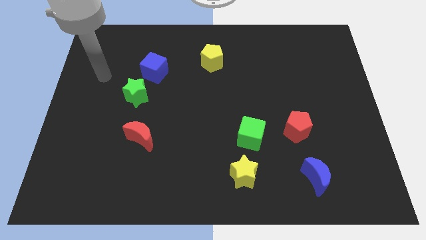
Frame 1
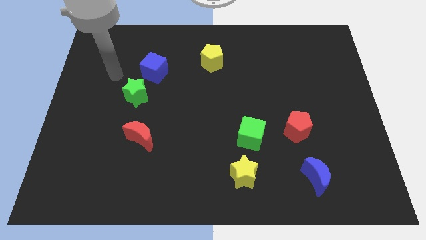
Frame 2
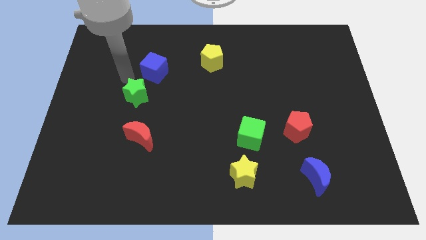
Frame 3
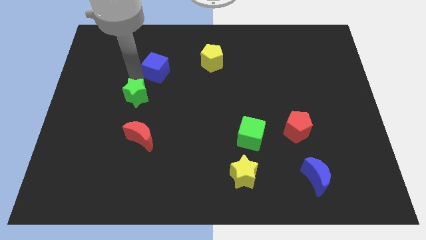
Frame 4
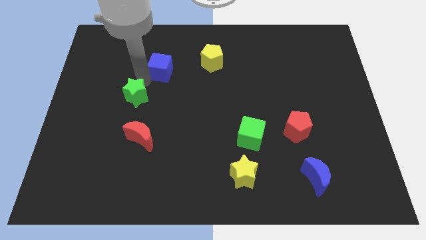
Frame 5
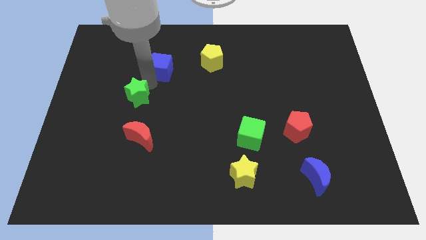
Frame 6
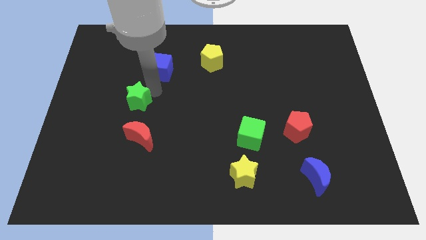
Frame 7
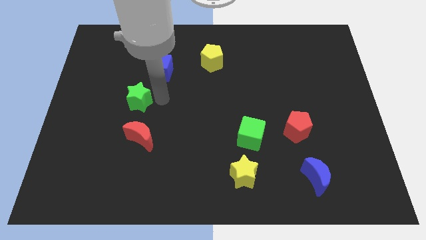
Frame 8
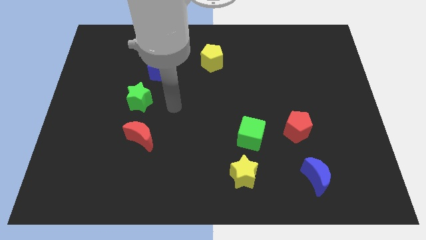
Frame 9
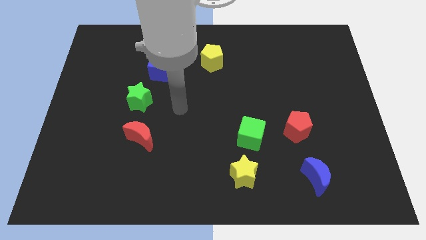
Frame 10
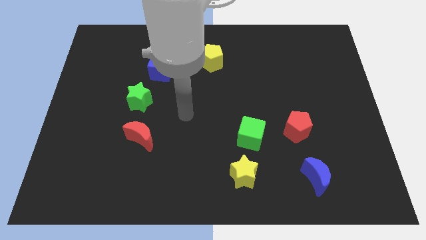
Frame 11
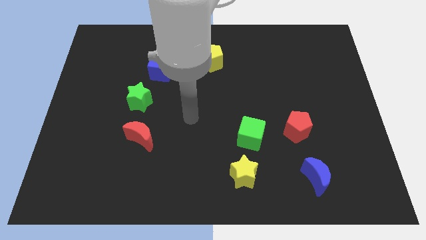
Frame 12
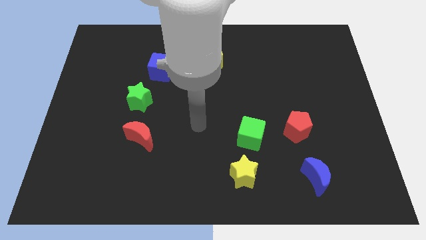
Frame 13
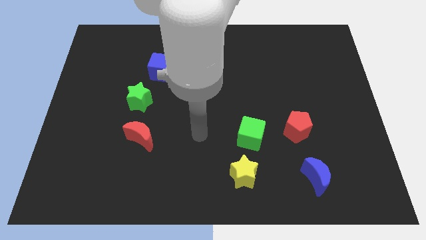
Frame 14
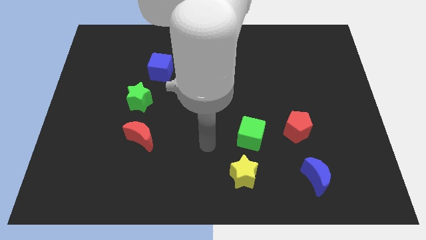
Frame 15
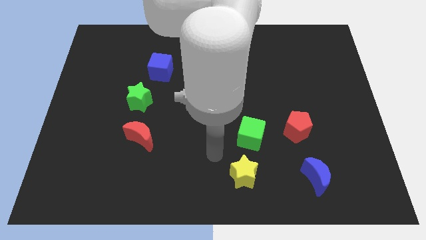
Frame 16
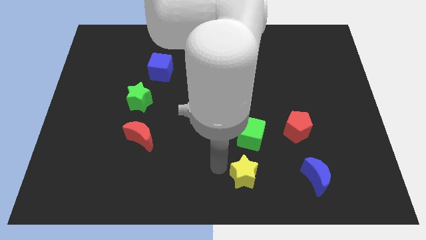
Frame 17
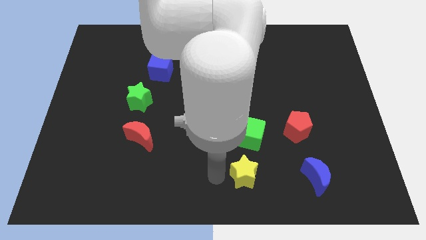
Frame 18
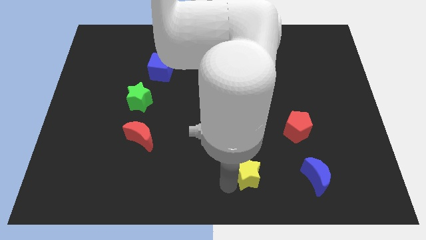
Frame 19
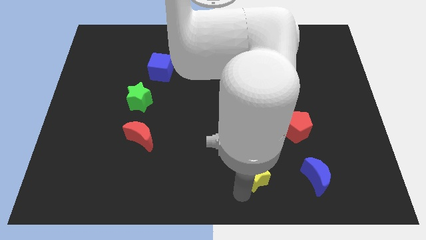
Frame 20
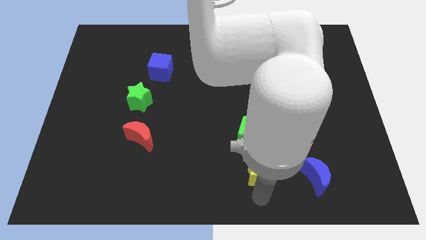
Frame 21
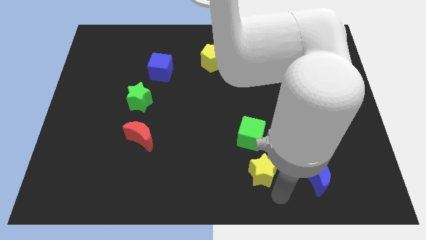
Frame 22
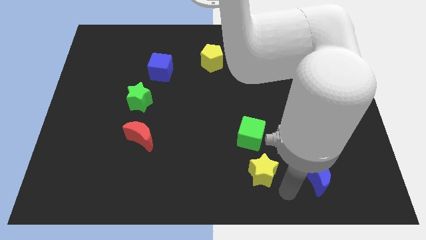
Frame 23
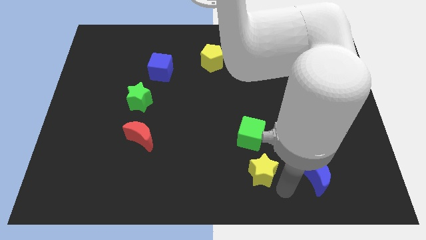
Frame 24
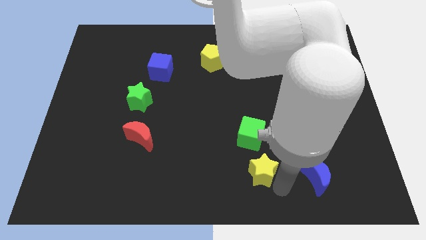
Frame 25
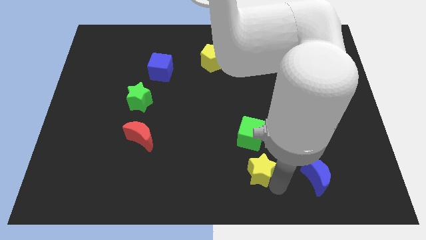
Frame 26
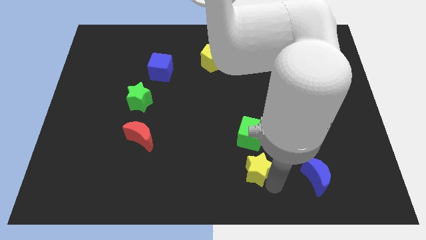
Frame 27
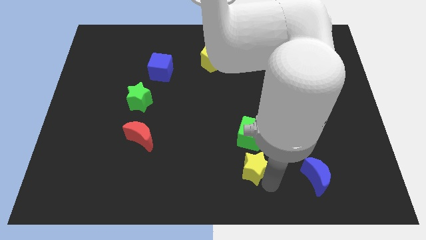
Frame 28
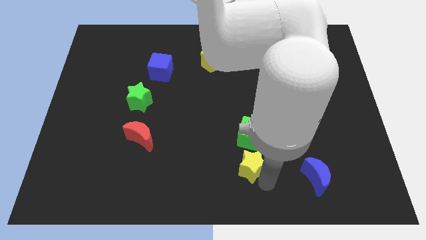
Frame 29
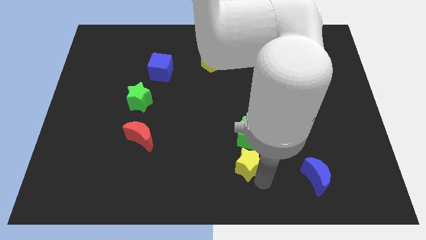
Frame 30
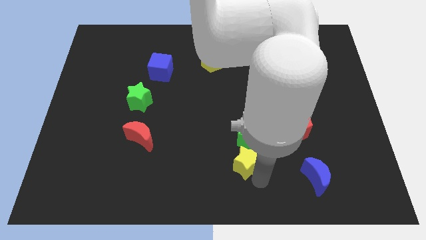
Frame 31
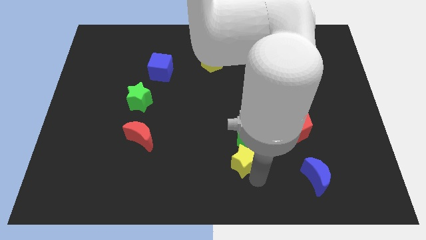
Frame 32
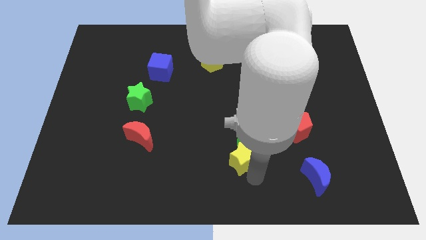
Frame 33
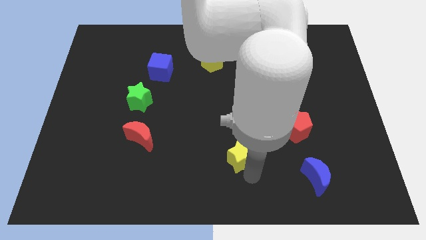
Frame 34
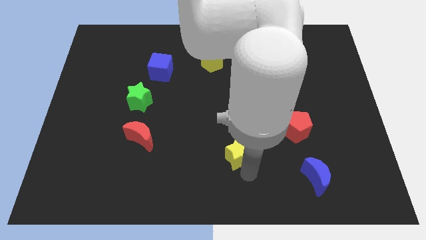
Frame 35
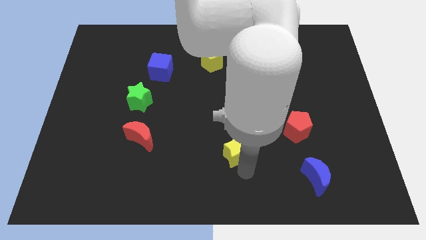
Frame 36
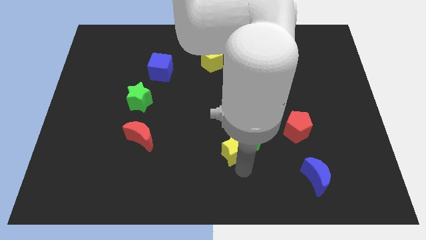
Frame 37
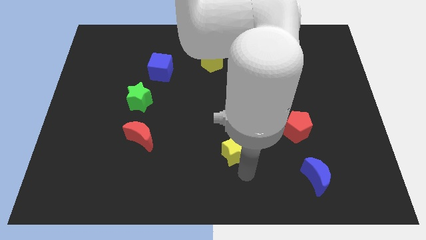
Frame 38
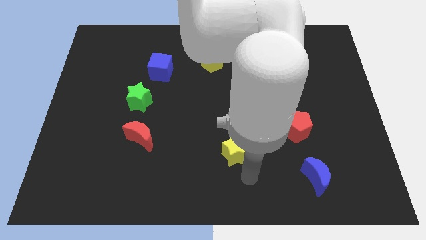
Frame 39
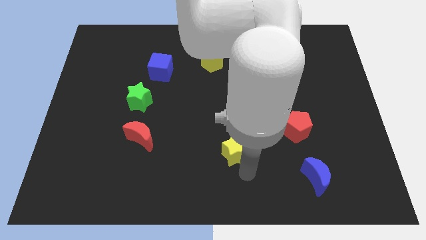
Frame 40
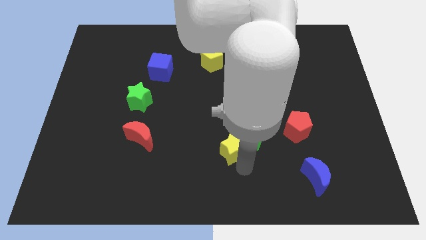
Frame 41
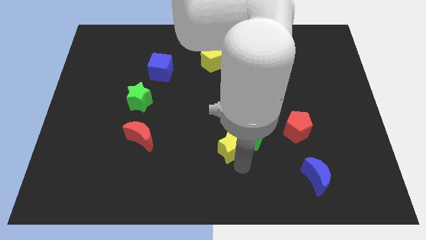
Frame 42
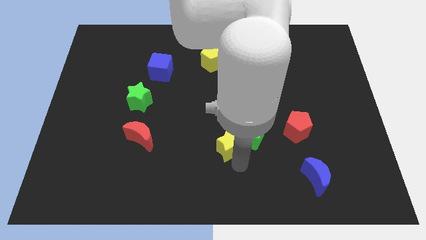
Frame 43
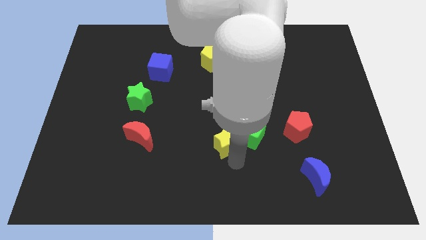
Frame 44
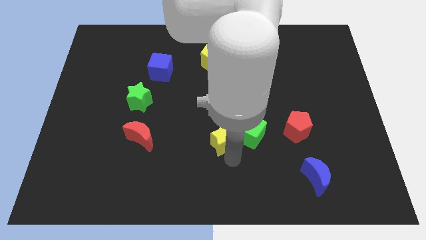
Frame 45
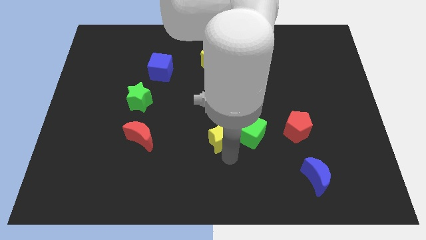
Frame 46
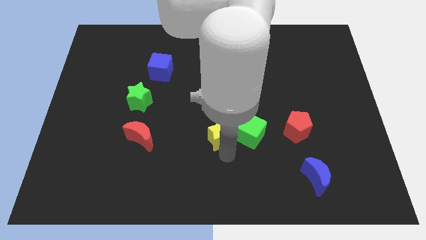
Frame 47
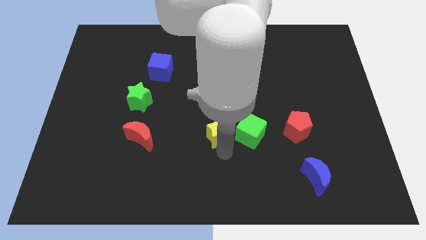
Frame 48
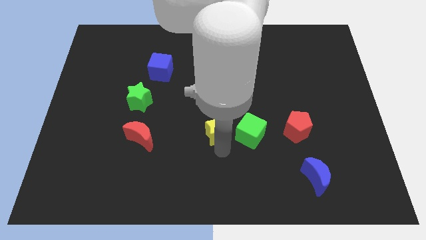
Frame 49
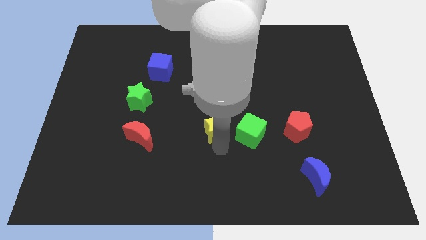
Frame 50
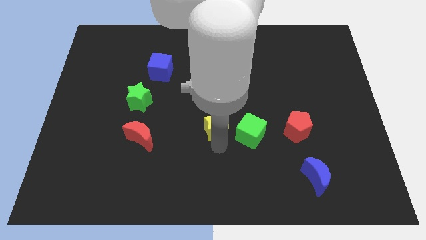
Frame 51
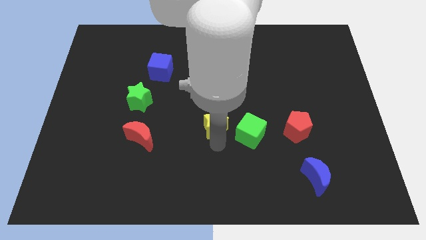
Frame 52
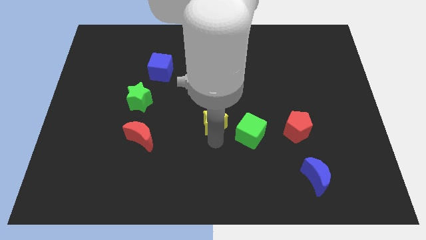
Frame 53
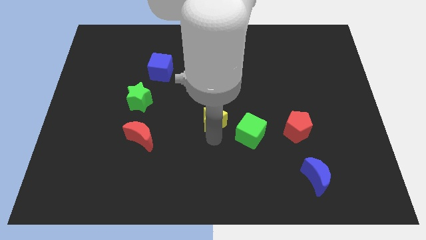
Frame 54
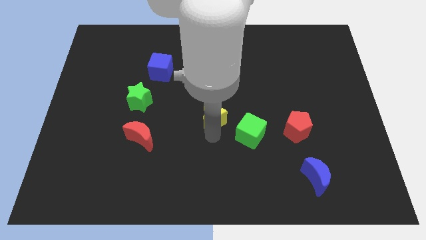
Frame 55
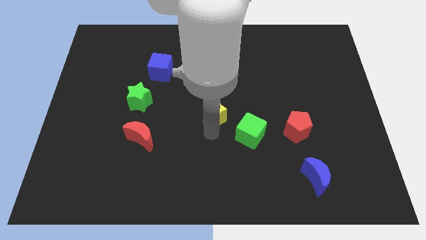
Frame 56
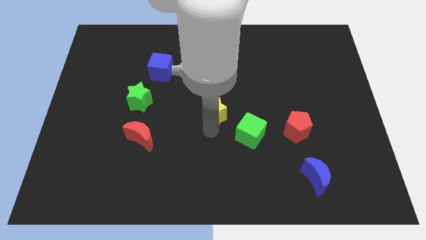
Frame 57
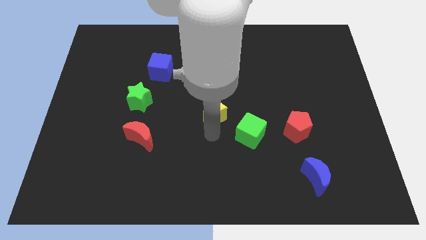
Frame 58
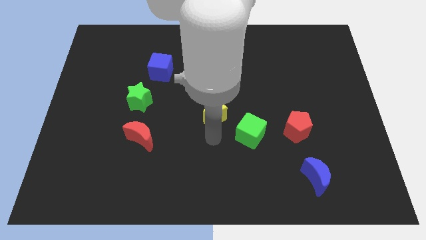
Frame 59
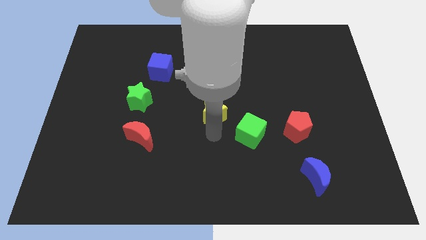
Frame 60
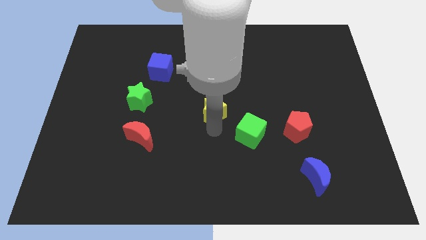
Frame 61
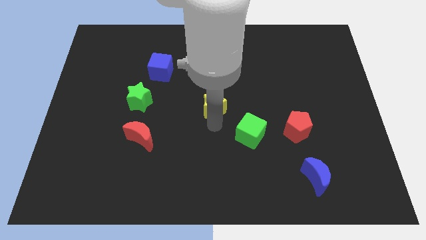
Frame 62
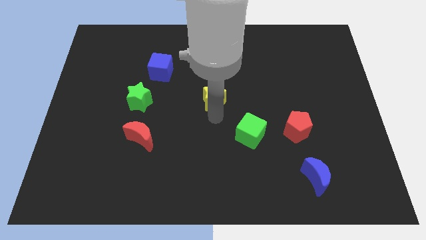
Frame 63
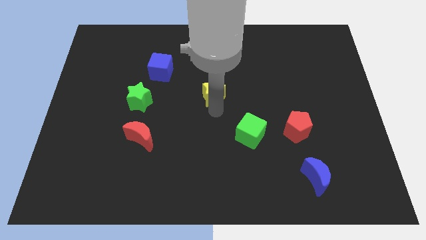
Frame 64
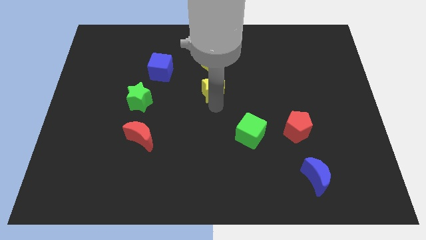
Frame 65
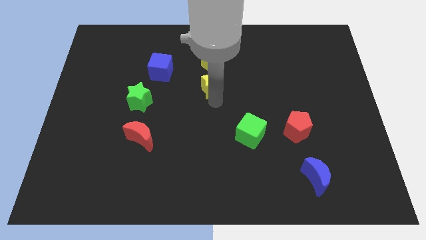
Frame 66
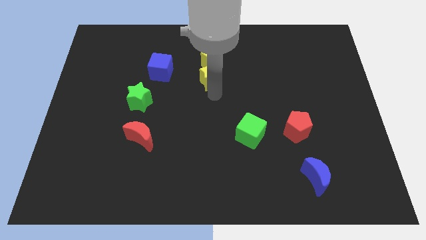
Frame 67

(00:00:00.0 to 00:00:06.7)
slide the yellow star close to the yellow pentagon

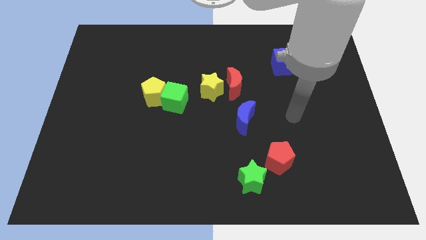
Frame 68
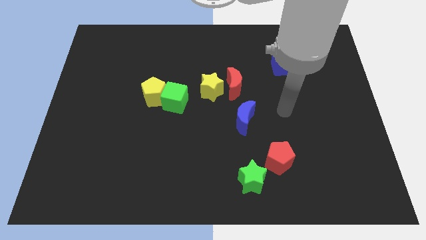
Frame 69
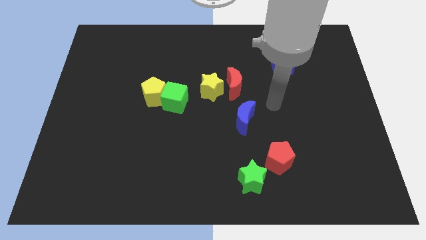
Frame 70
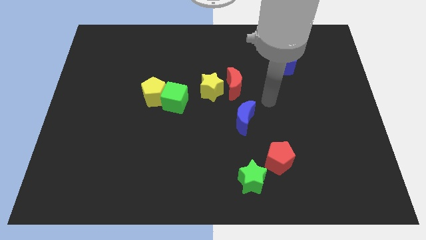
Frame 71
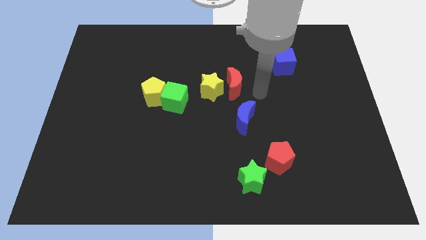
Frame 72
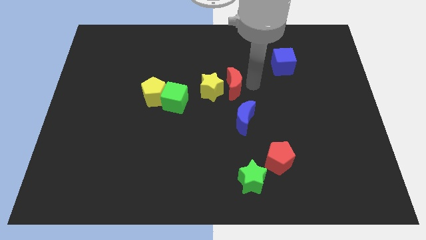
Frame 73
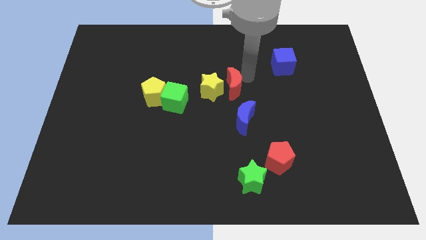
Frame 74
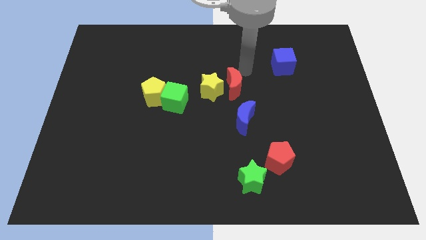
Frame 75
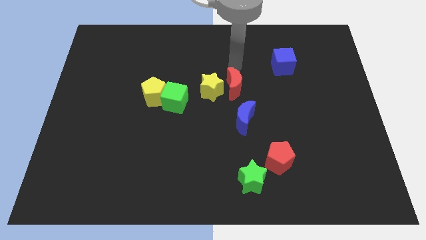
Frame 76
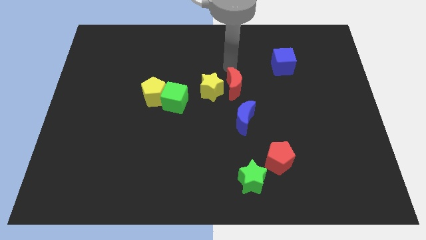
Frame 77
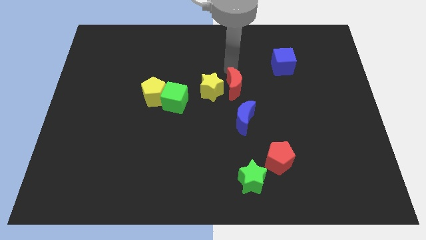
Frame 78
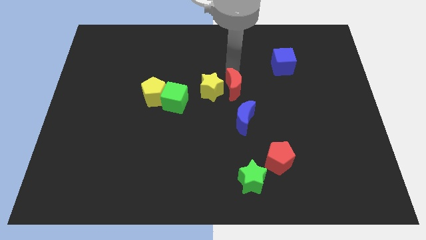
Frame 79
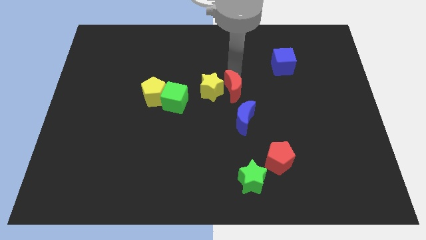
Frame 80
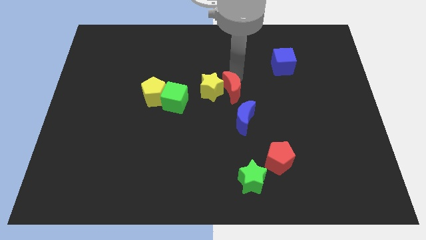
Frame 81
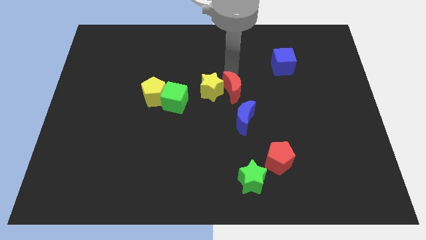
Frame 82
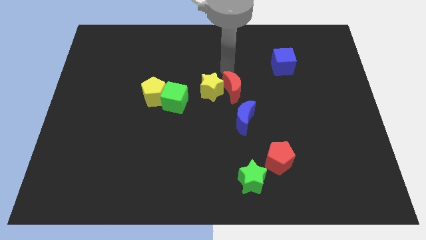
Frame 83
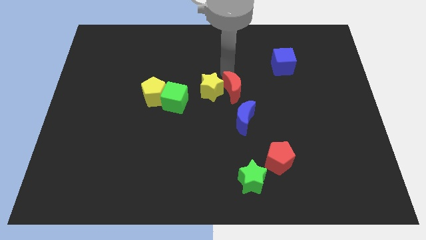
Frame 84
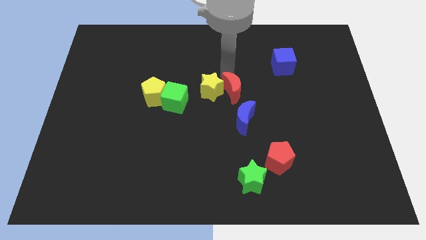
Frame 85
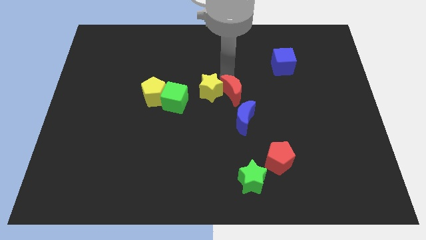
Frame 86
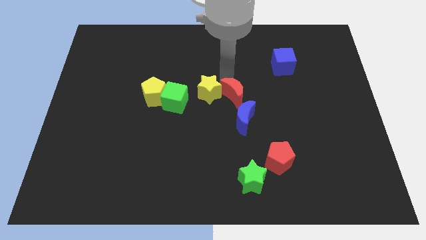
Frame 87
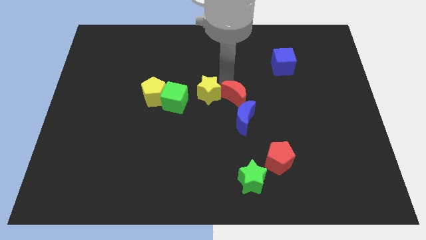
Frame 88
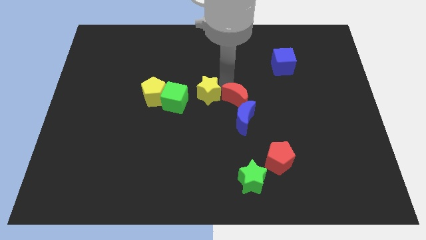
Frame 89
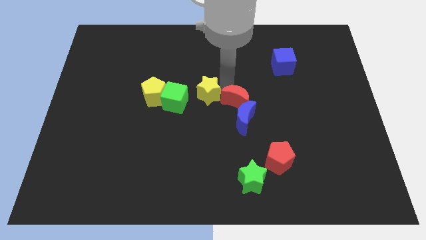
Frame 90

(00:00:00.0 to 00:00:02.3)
move the red moon close to the blue moon
